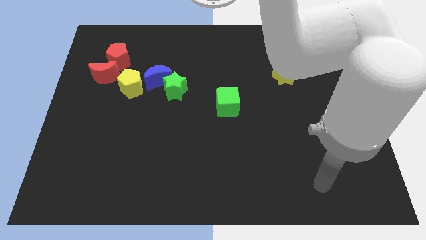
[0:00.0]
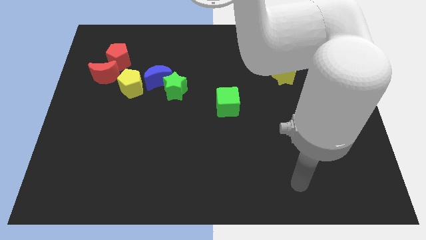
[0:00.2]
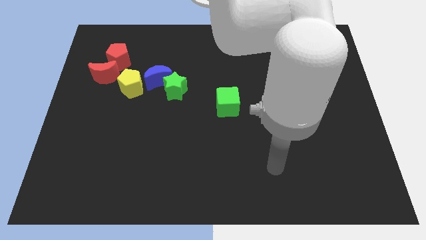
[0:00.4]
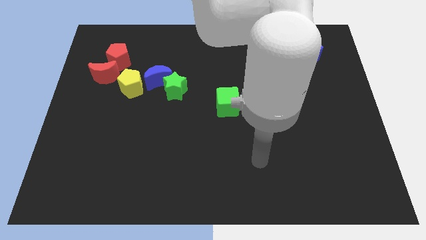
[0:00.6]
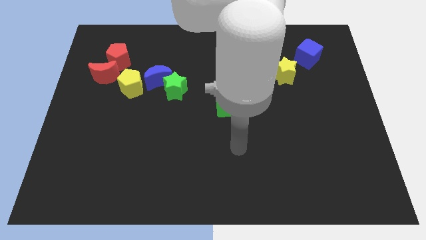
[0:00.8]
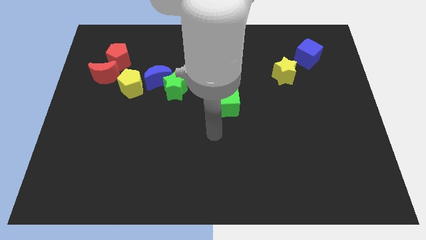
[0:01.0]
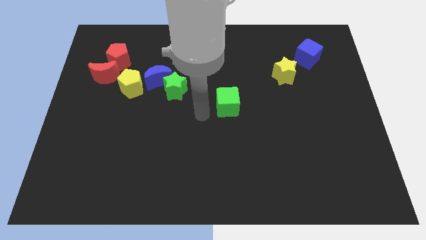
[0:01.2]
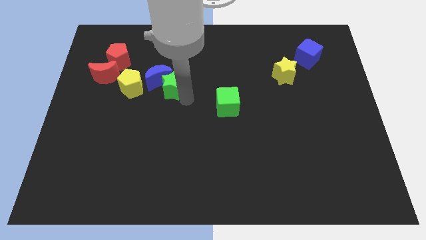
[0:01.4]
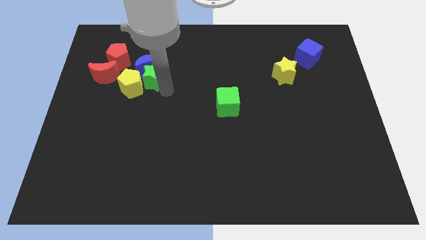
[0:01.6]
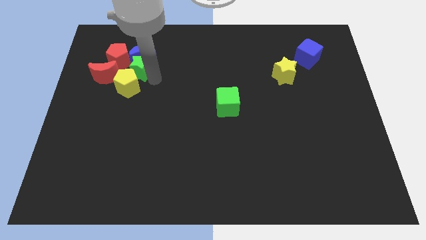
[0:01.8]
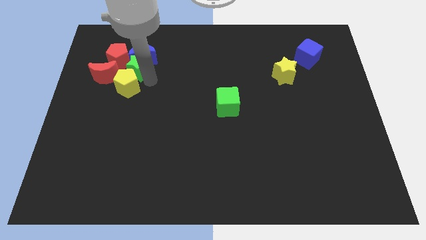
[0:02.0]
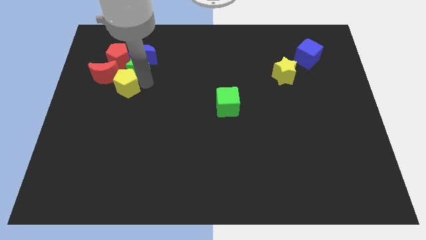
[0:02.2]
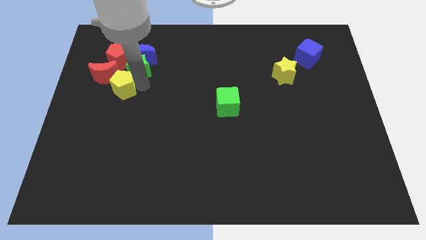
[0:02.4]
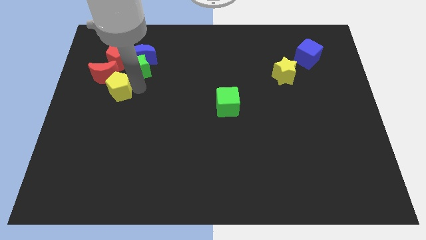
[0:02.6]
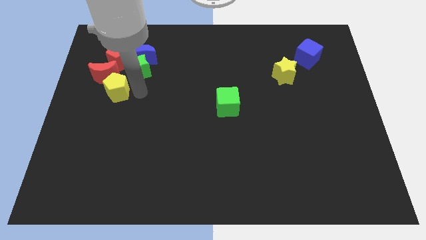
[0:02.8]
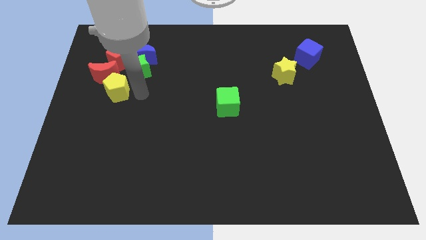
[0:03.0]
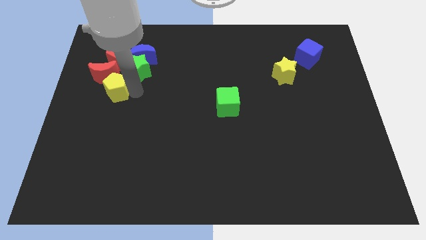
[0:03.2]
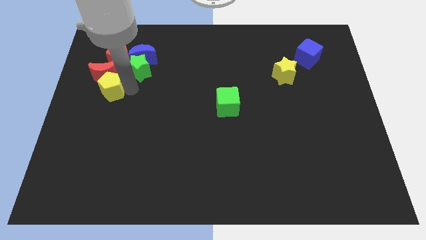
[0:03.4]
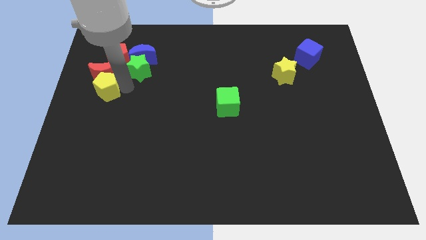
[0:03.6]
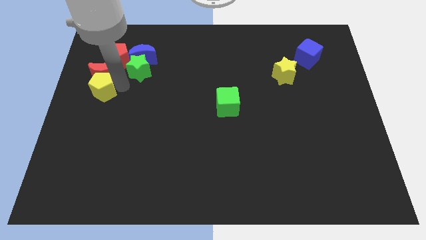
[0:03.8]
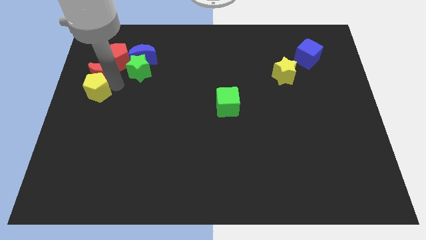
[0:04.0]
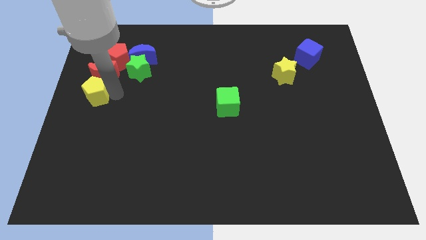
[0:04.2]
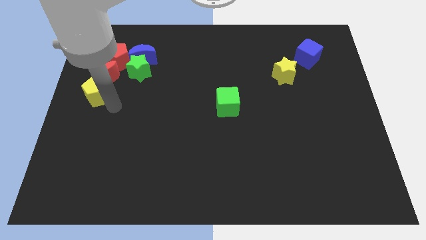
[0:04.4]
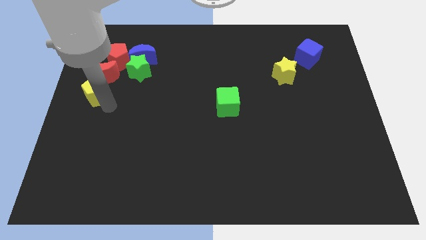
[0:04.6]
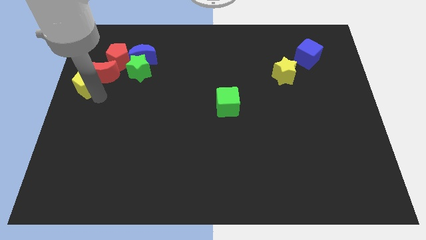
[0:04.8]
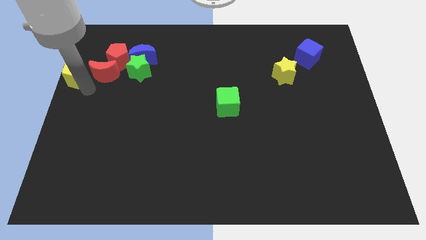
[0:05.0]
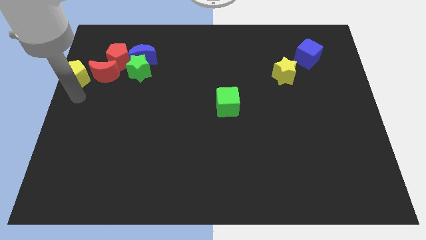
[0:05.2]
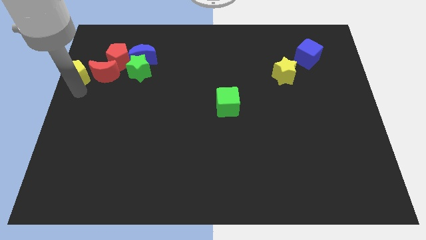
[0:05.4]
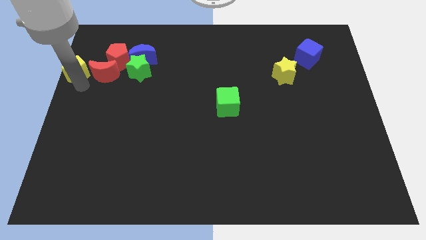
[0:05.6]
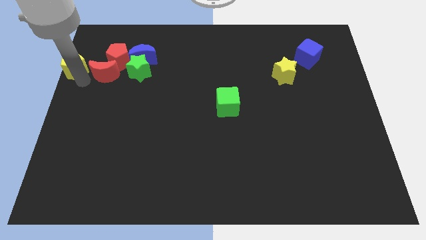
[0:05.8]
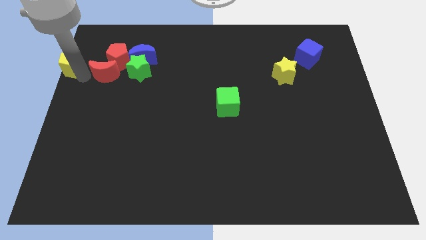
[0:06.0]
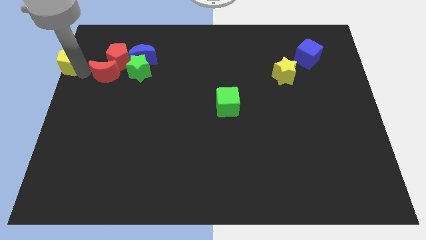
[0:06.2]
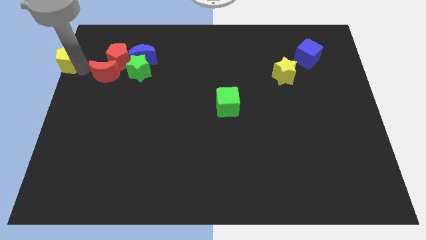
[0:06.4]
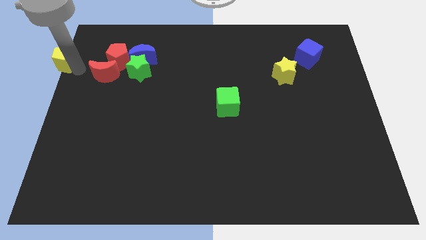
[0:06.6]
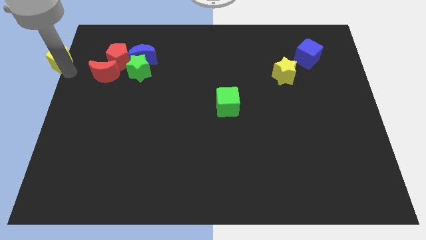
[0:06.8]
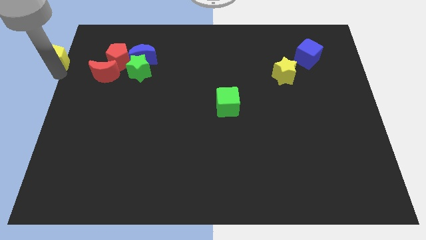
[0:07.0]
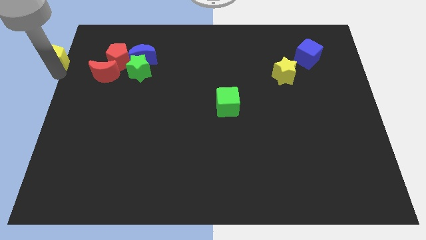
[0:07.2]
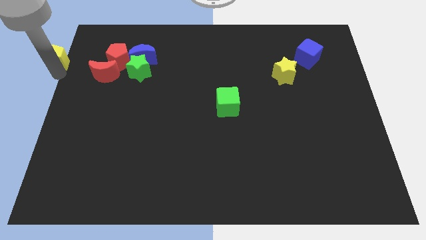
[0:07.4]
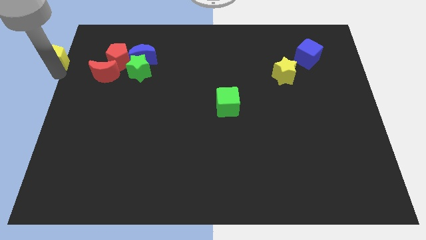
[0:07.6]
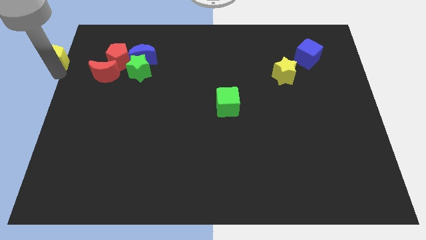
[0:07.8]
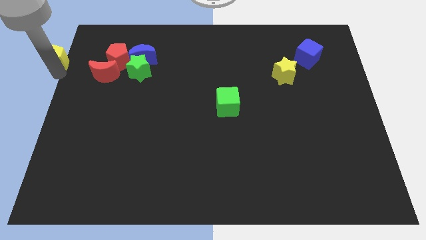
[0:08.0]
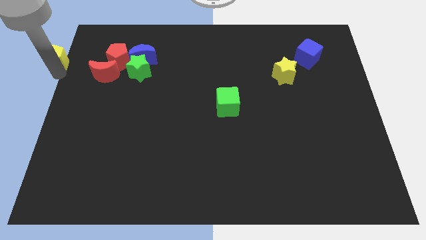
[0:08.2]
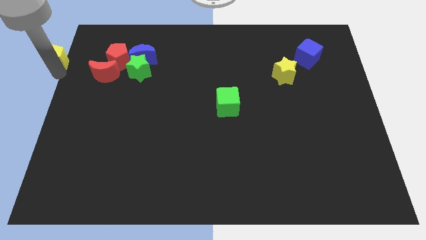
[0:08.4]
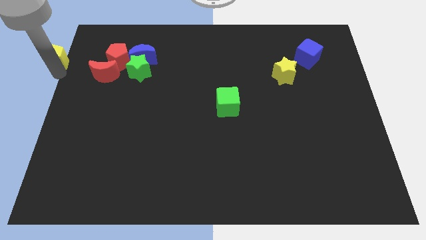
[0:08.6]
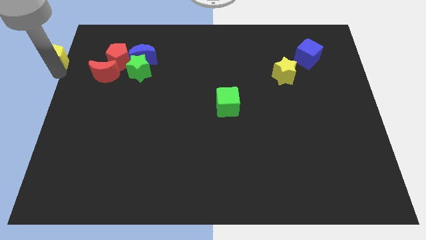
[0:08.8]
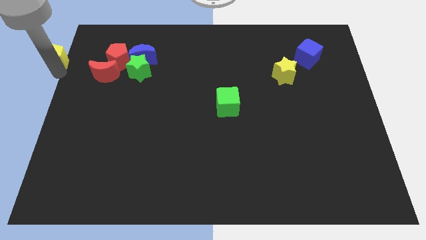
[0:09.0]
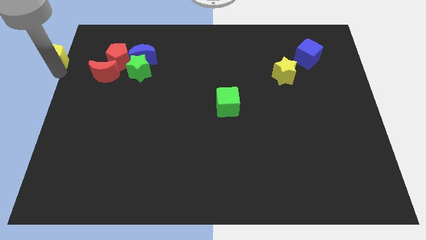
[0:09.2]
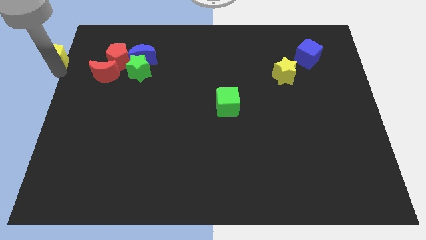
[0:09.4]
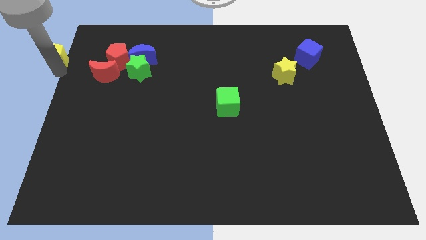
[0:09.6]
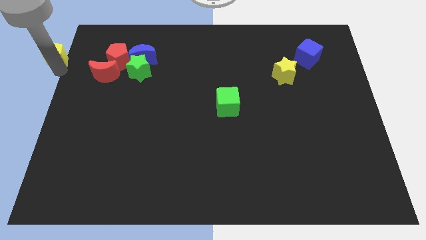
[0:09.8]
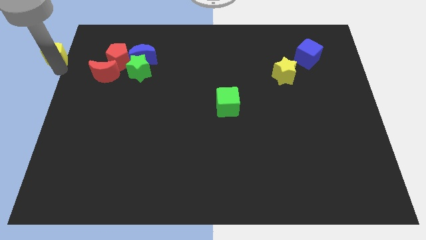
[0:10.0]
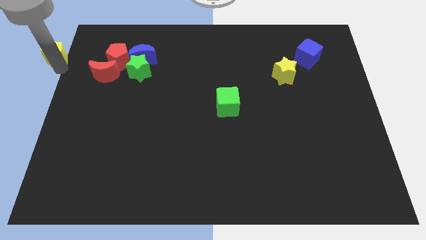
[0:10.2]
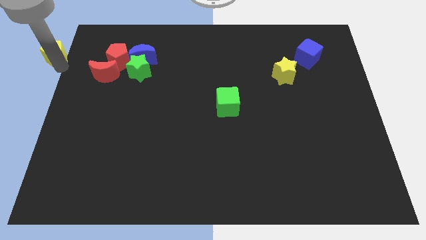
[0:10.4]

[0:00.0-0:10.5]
put the yellow pentagon to the top left corner

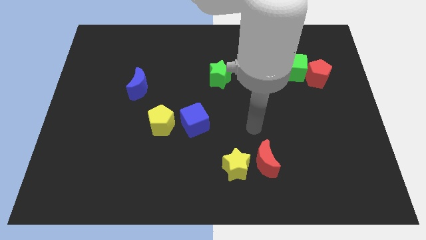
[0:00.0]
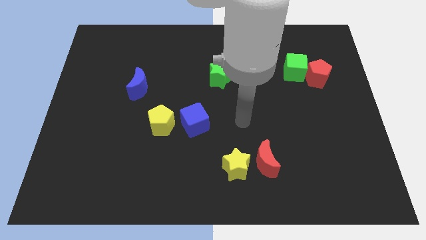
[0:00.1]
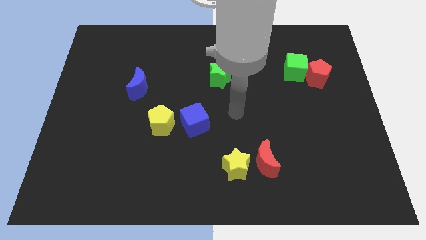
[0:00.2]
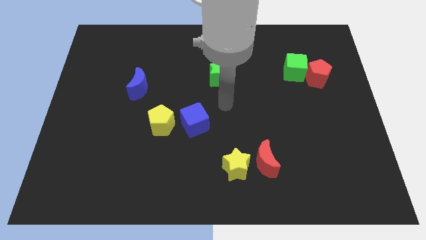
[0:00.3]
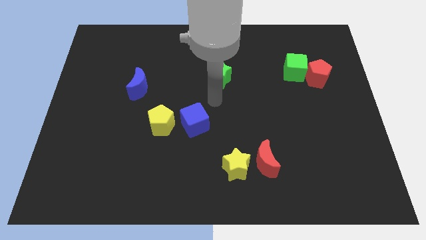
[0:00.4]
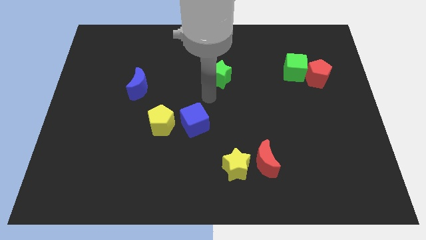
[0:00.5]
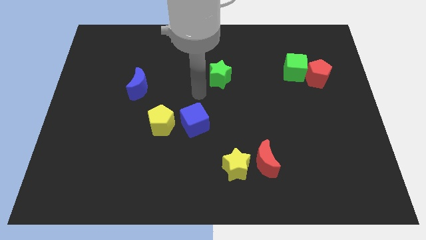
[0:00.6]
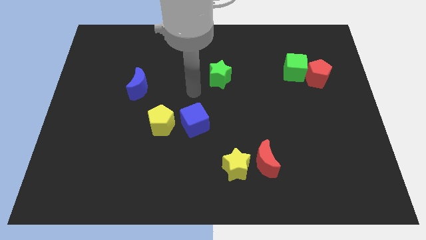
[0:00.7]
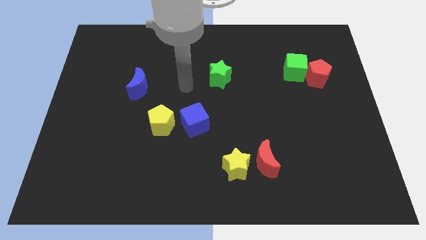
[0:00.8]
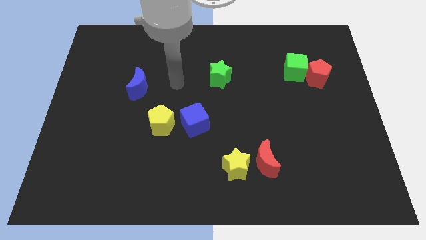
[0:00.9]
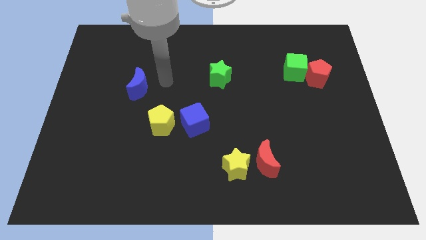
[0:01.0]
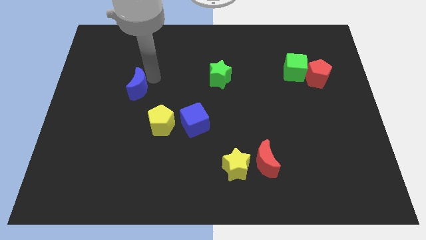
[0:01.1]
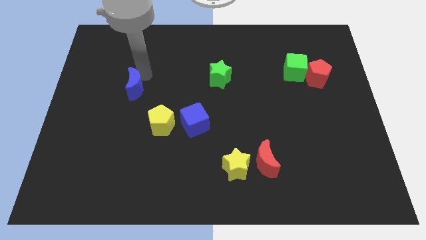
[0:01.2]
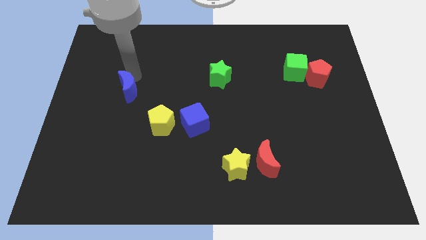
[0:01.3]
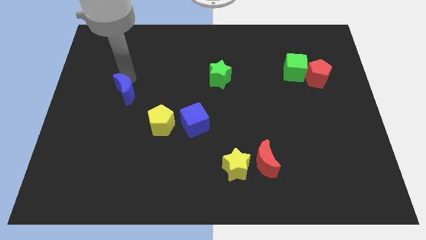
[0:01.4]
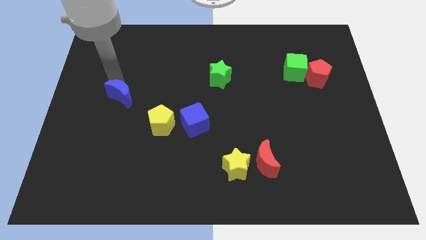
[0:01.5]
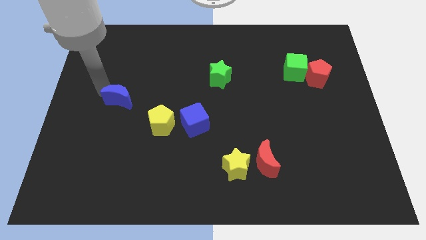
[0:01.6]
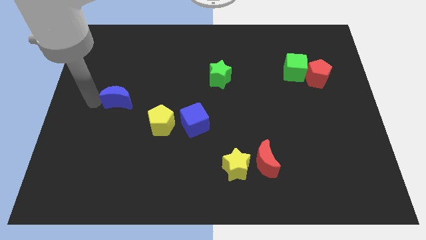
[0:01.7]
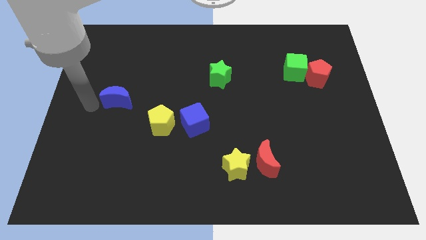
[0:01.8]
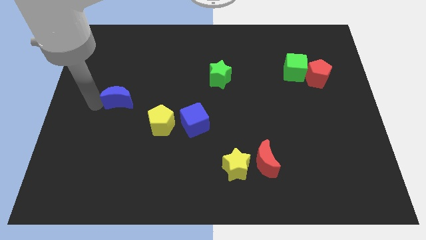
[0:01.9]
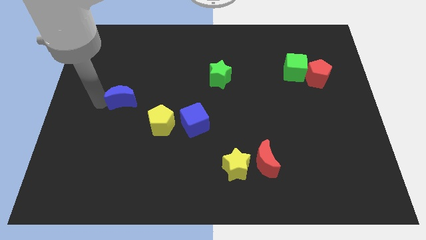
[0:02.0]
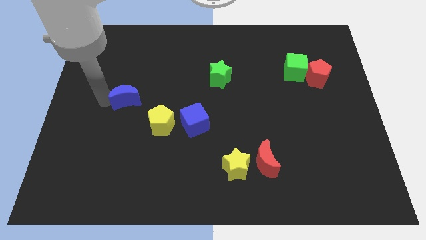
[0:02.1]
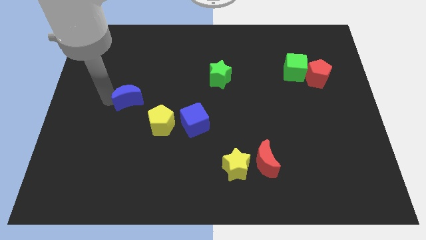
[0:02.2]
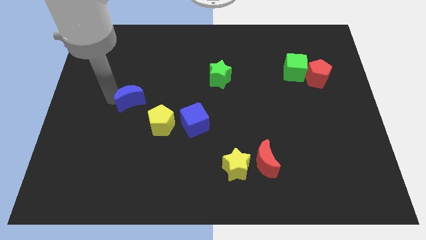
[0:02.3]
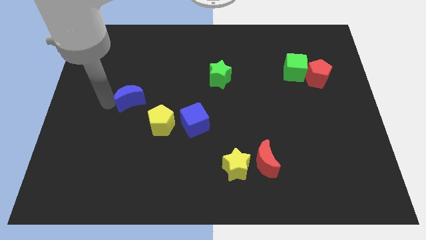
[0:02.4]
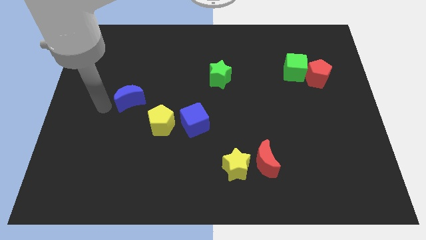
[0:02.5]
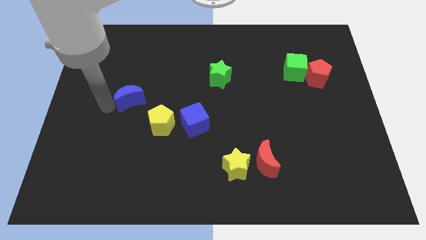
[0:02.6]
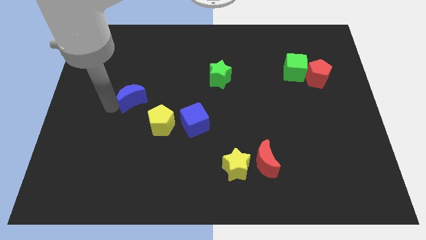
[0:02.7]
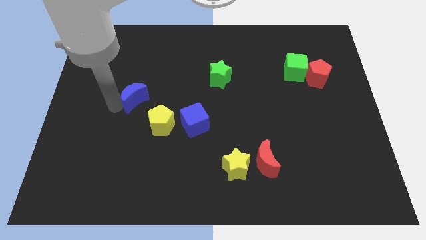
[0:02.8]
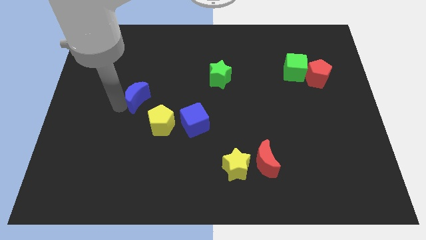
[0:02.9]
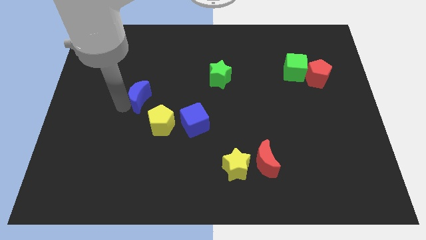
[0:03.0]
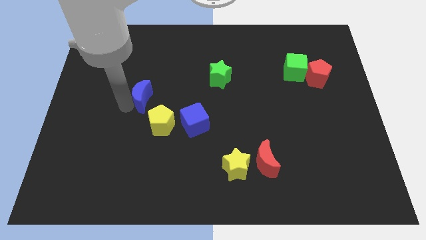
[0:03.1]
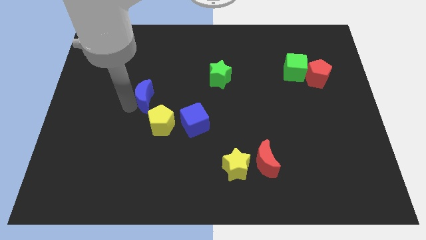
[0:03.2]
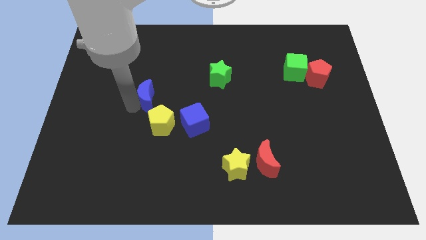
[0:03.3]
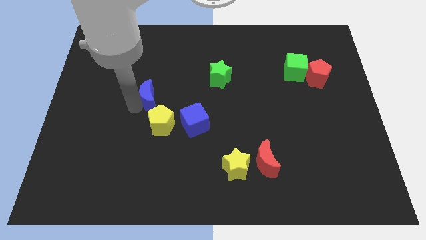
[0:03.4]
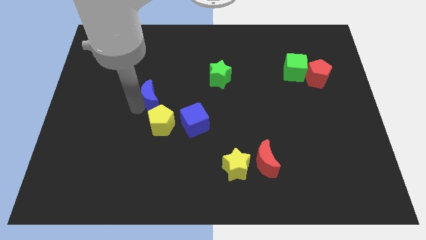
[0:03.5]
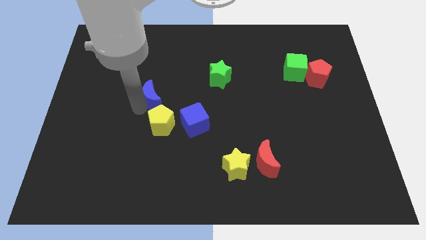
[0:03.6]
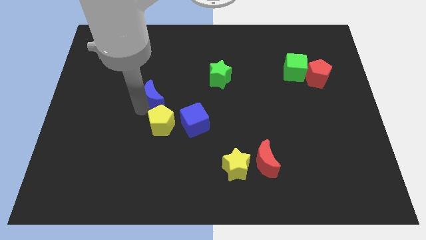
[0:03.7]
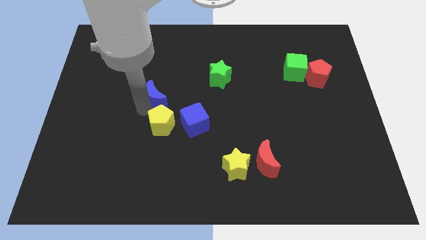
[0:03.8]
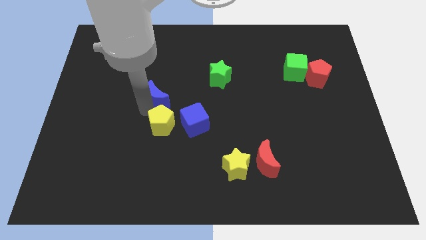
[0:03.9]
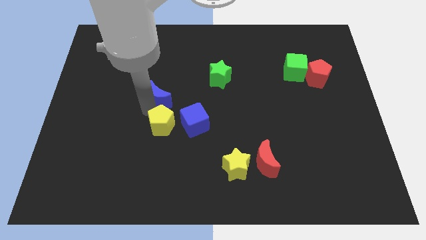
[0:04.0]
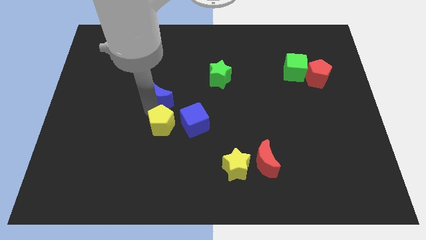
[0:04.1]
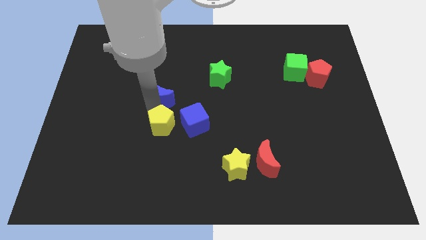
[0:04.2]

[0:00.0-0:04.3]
move the blue moon to the center
